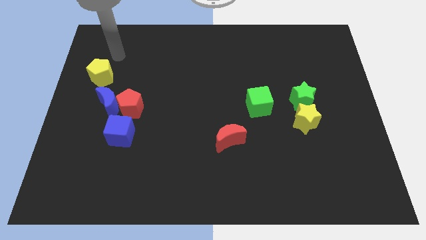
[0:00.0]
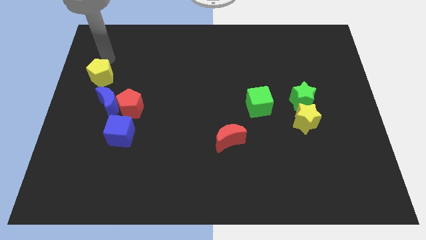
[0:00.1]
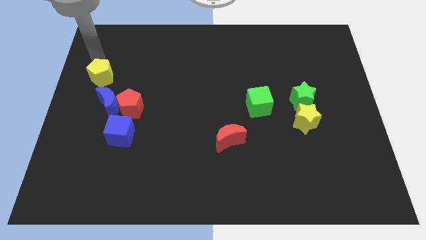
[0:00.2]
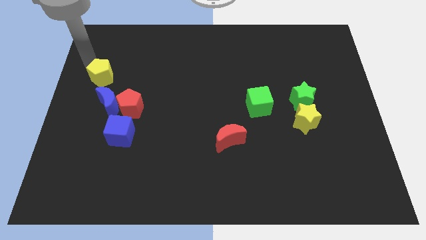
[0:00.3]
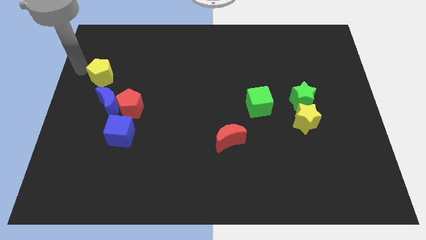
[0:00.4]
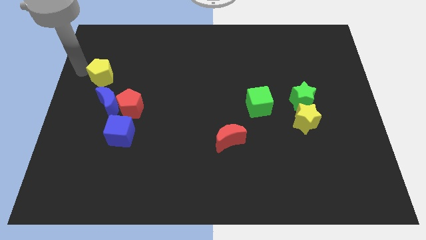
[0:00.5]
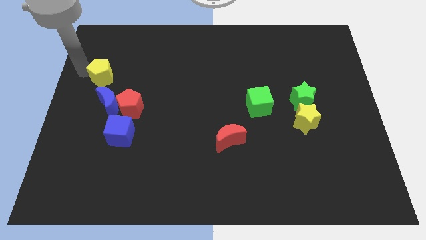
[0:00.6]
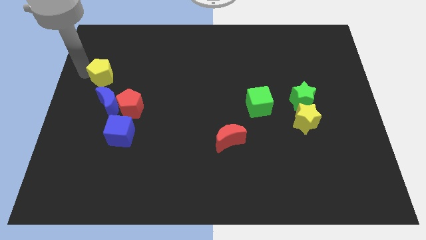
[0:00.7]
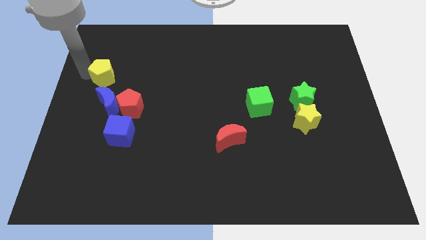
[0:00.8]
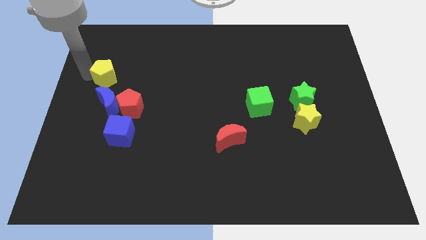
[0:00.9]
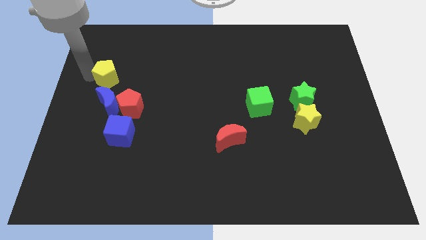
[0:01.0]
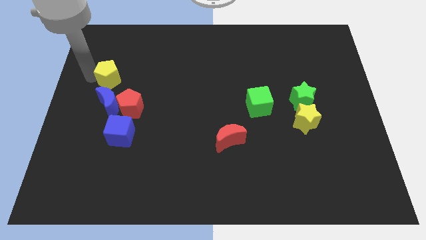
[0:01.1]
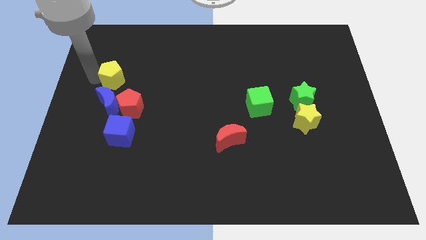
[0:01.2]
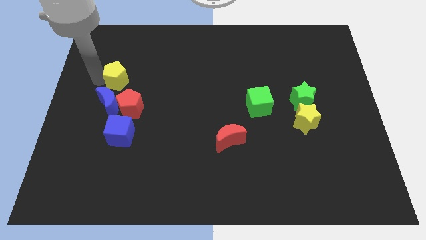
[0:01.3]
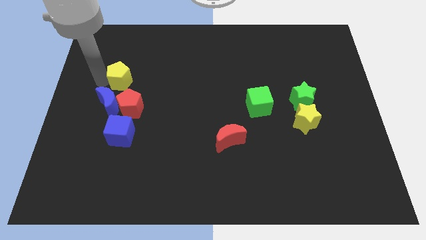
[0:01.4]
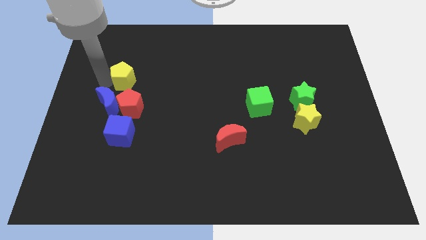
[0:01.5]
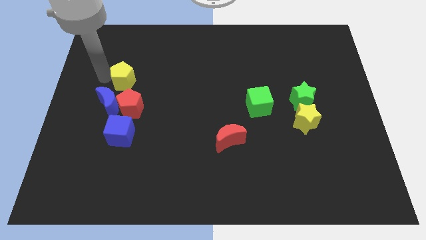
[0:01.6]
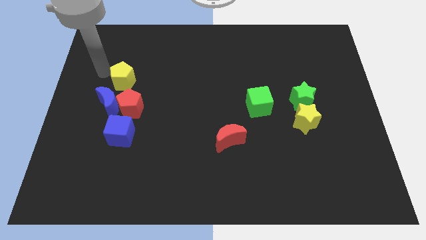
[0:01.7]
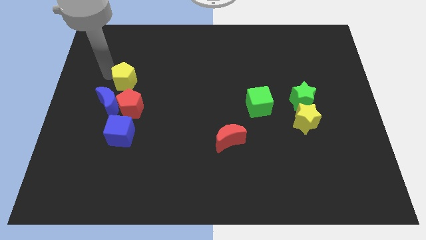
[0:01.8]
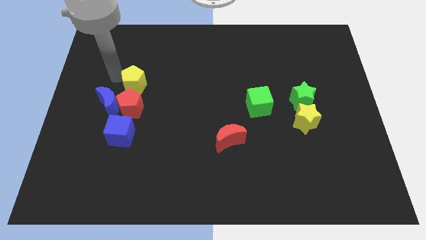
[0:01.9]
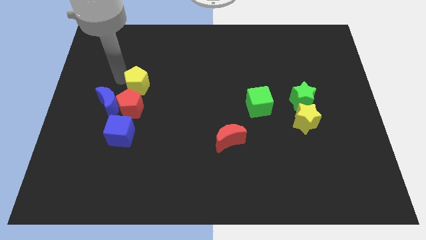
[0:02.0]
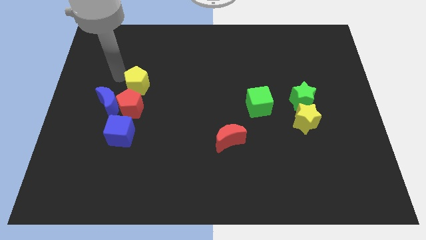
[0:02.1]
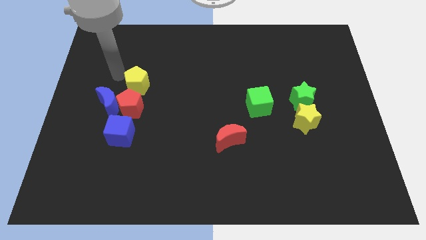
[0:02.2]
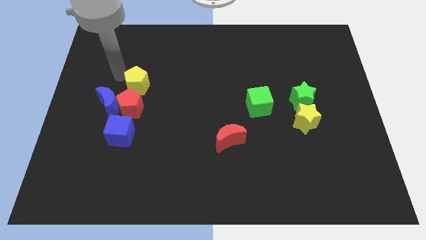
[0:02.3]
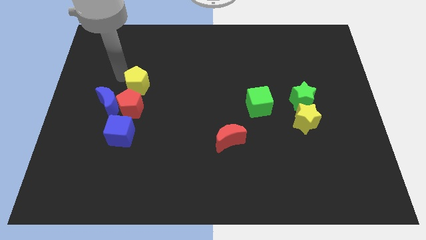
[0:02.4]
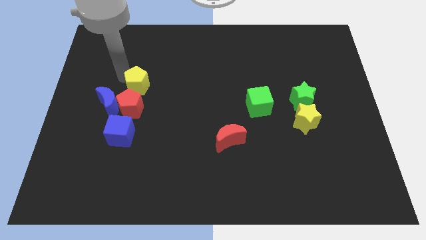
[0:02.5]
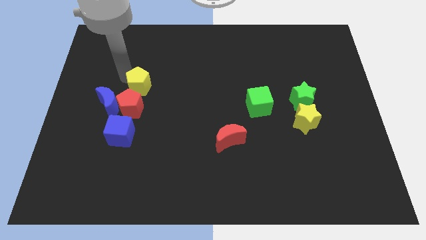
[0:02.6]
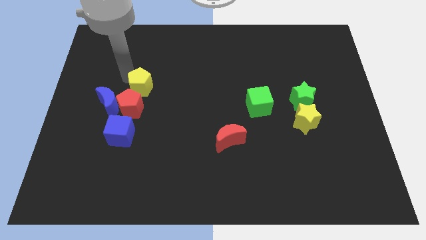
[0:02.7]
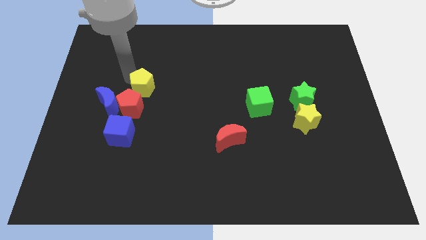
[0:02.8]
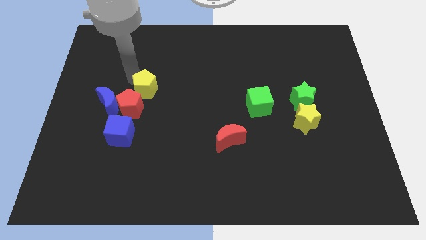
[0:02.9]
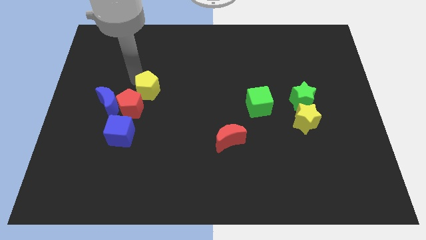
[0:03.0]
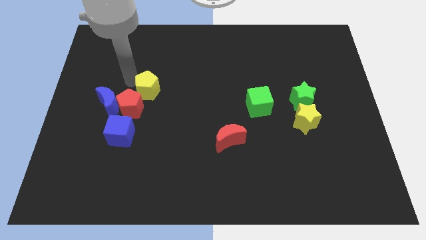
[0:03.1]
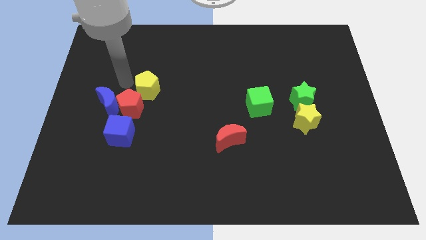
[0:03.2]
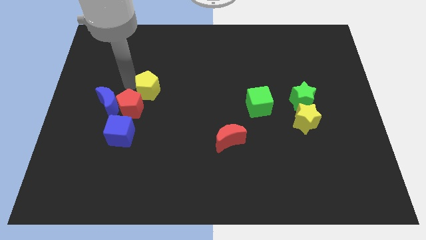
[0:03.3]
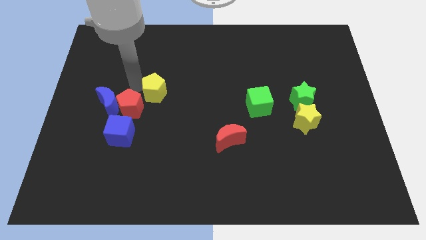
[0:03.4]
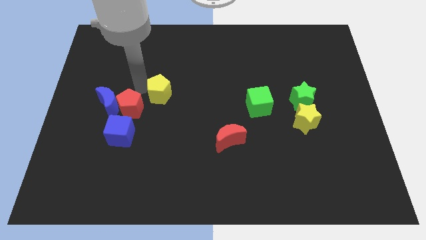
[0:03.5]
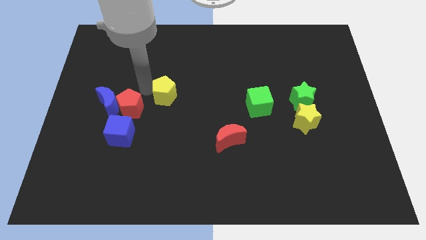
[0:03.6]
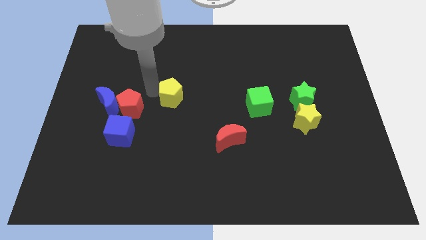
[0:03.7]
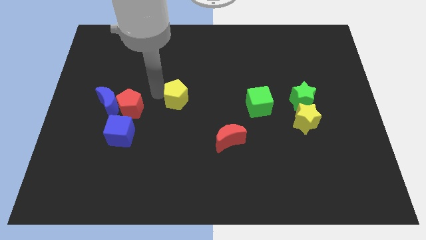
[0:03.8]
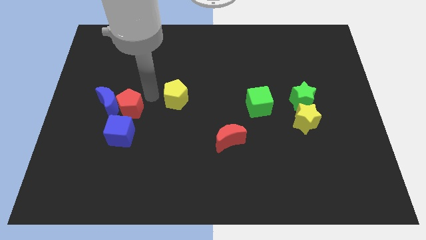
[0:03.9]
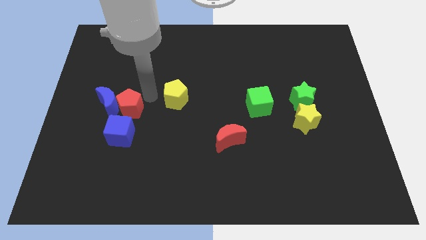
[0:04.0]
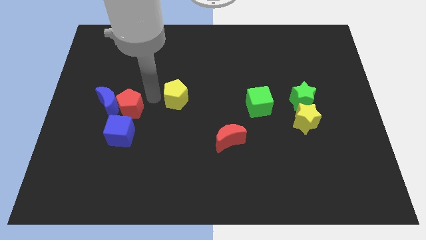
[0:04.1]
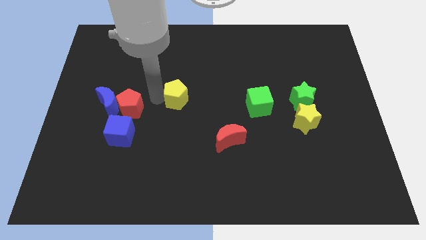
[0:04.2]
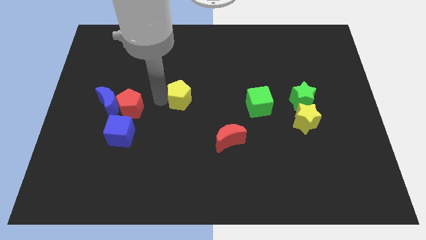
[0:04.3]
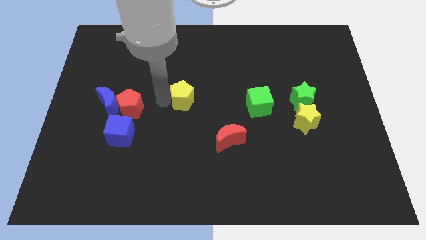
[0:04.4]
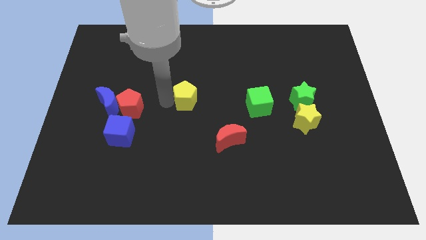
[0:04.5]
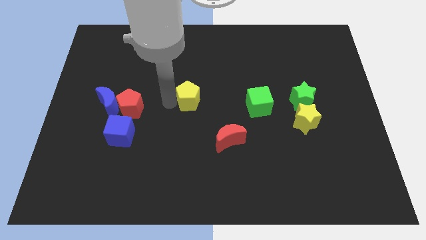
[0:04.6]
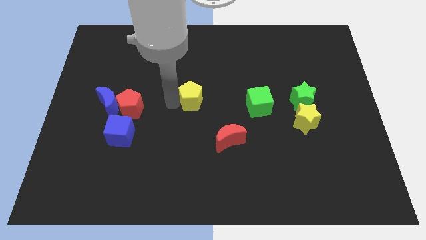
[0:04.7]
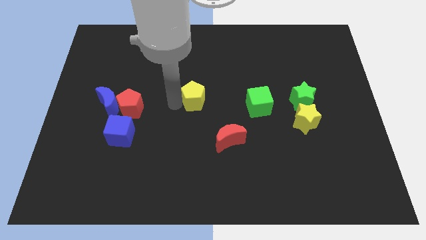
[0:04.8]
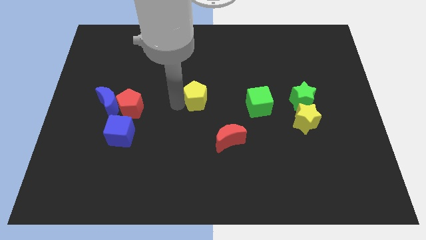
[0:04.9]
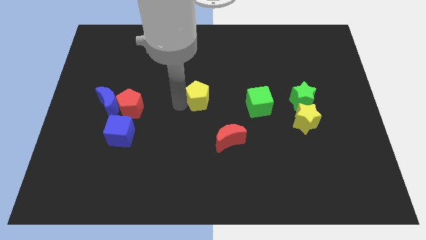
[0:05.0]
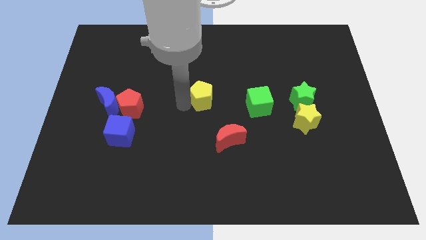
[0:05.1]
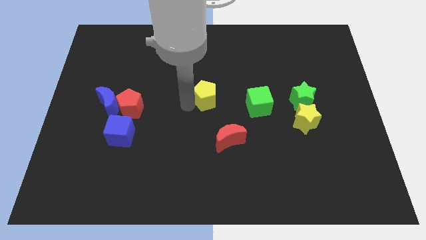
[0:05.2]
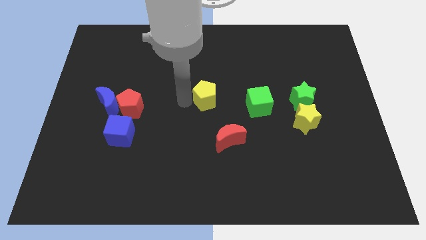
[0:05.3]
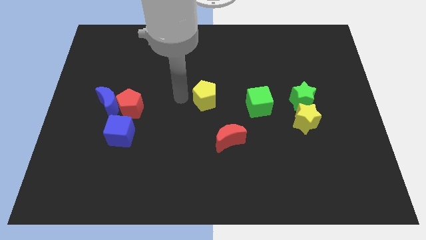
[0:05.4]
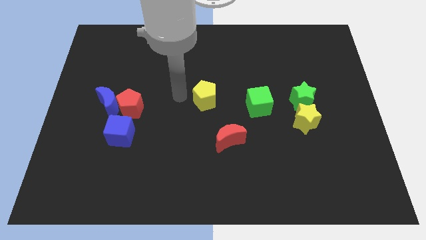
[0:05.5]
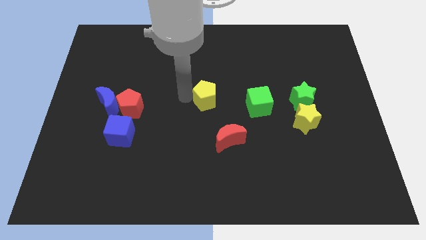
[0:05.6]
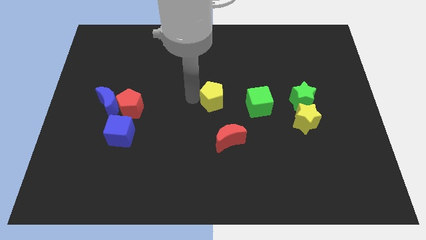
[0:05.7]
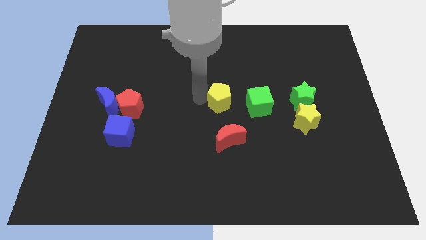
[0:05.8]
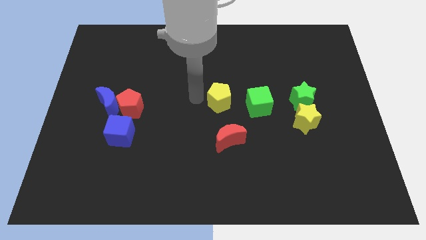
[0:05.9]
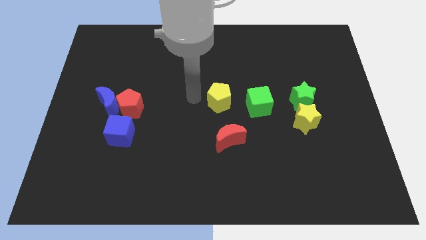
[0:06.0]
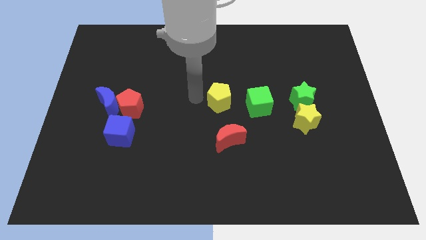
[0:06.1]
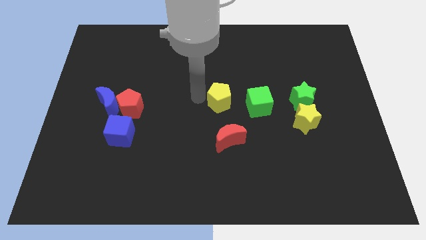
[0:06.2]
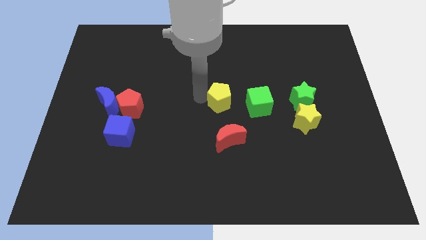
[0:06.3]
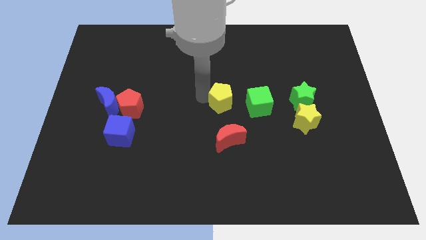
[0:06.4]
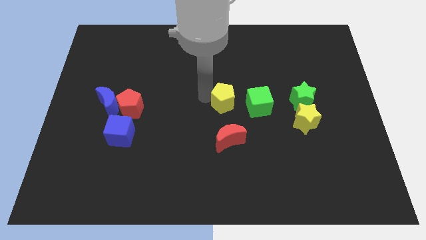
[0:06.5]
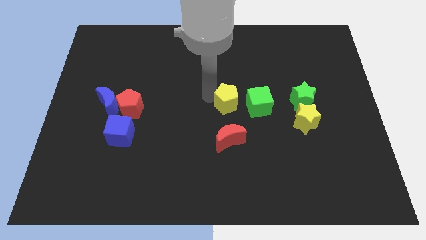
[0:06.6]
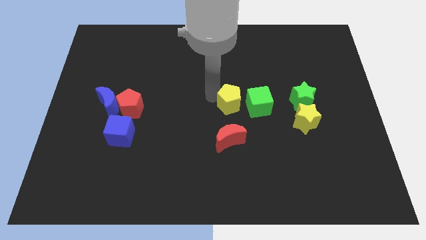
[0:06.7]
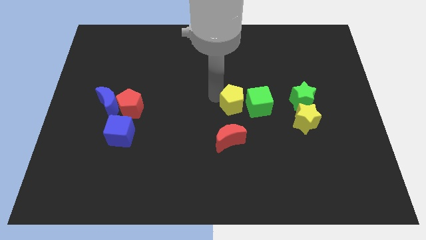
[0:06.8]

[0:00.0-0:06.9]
put the yellow pentagon towards the green cube
